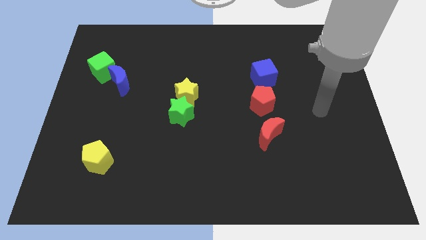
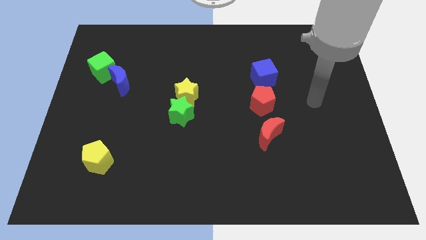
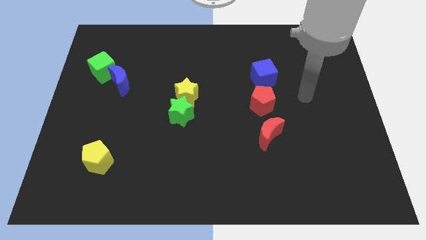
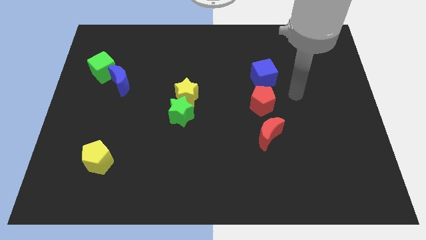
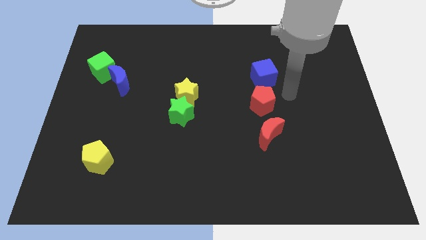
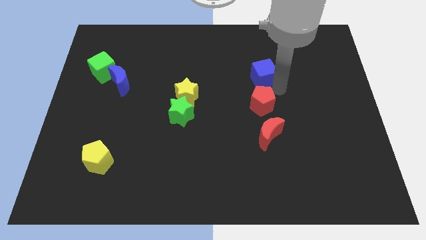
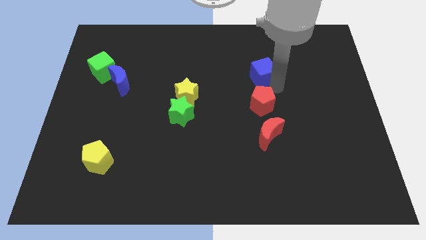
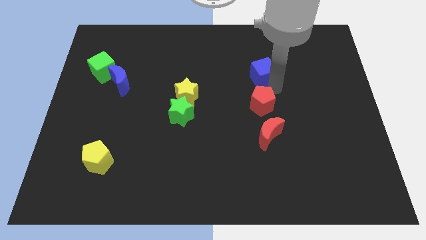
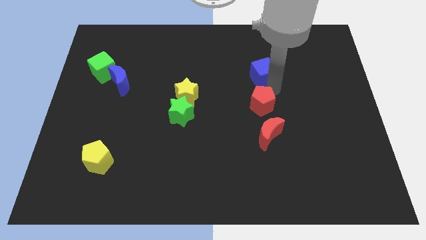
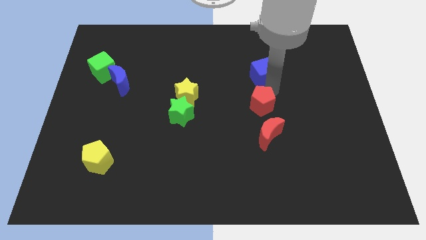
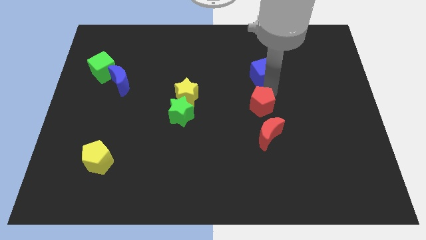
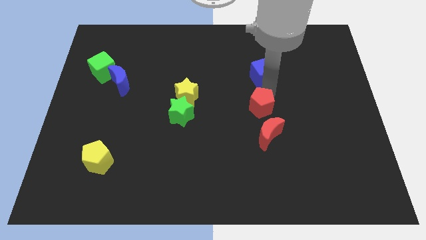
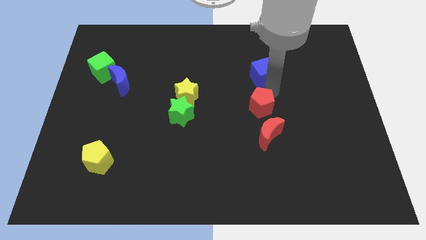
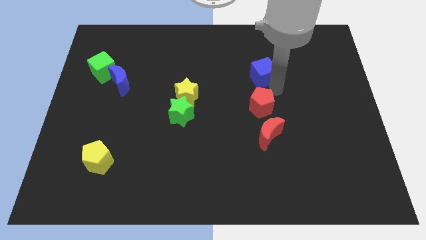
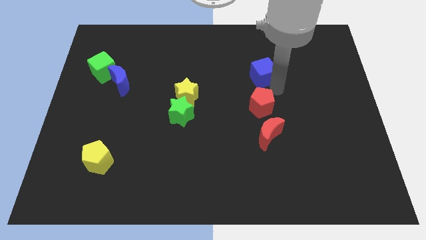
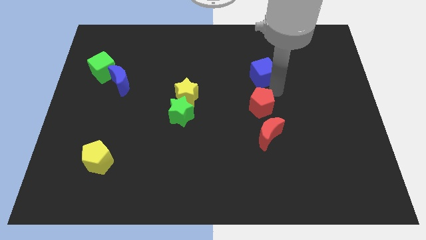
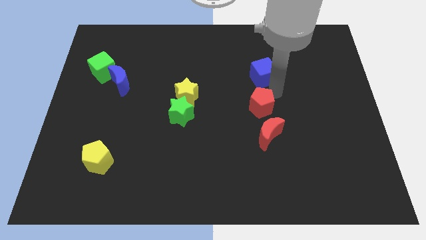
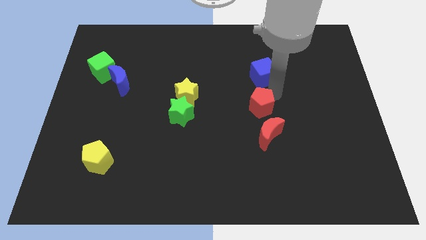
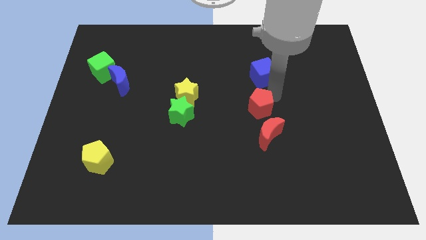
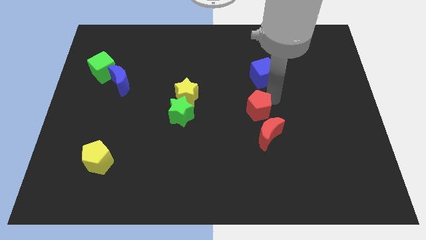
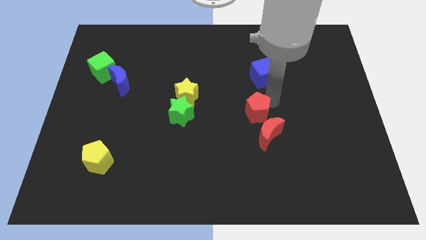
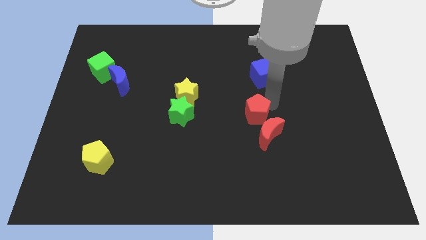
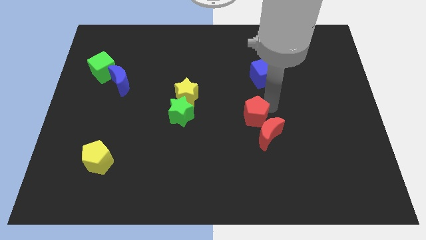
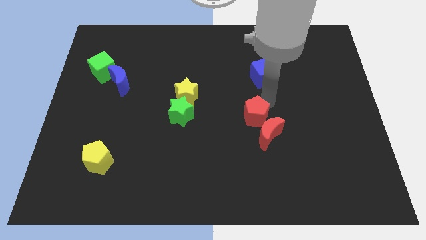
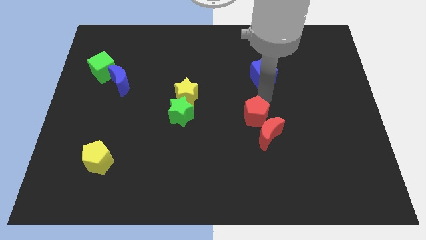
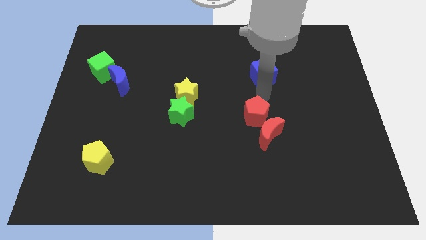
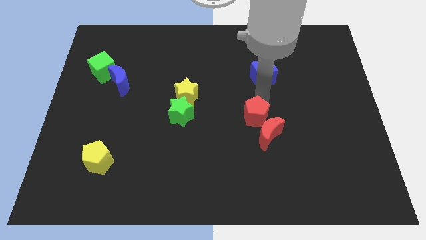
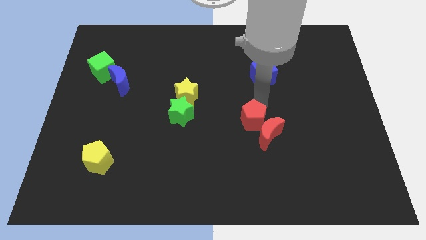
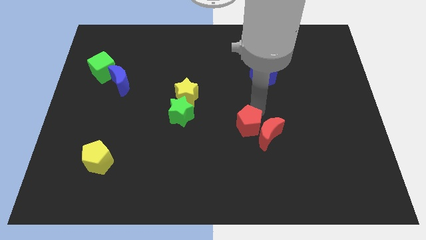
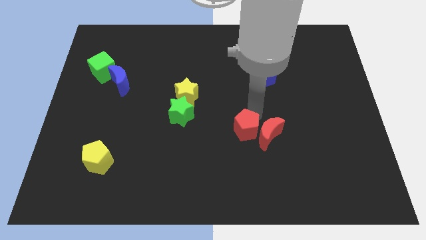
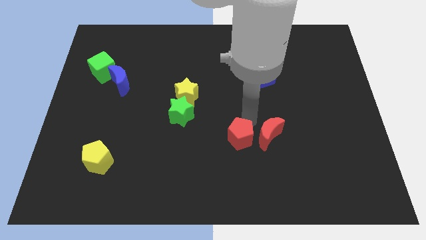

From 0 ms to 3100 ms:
slightly move the red pentagon down

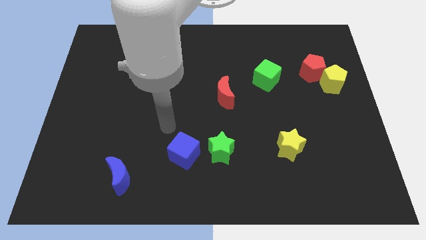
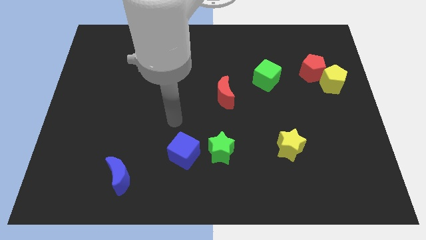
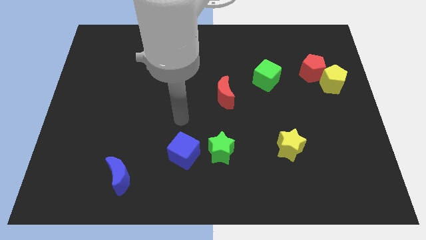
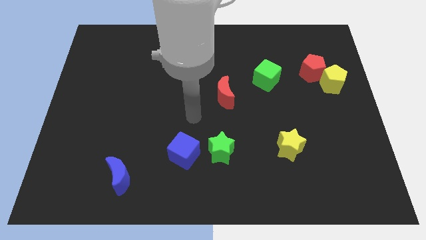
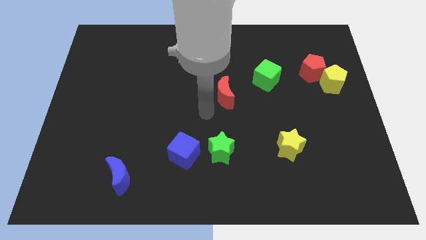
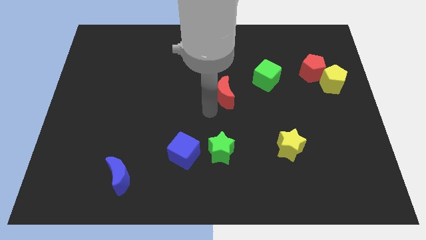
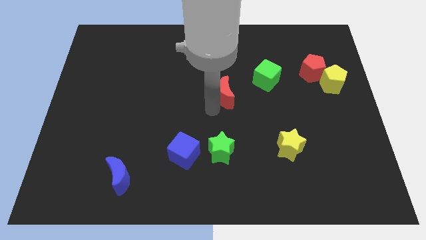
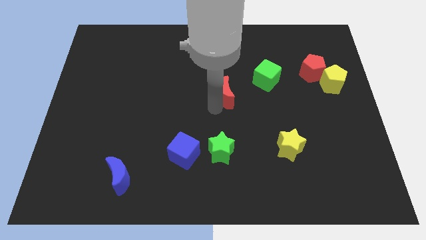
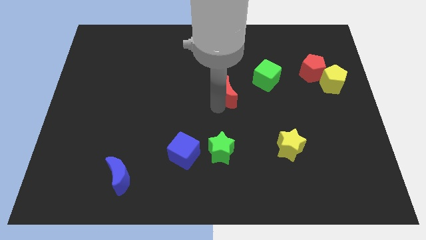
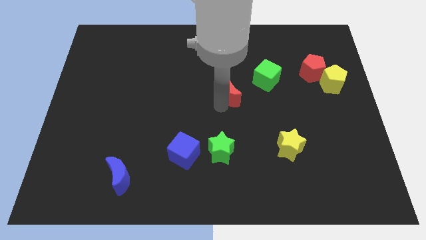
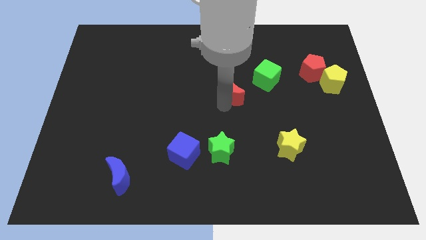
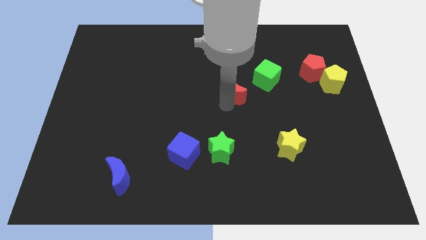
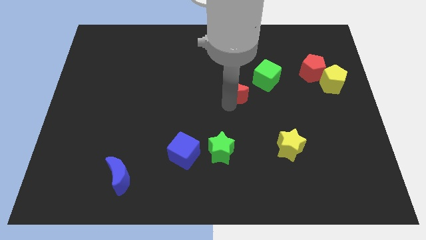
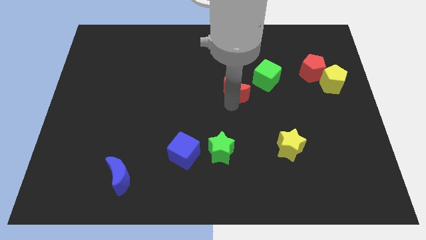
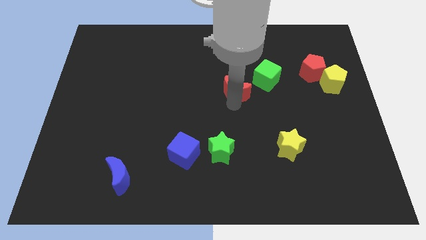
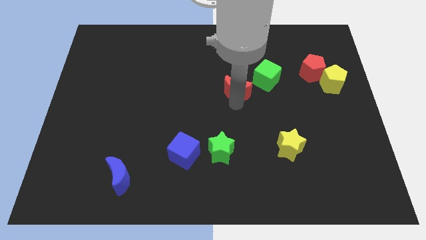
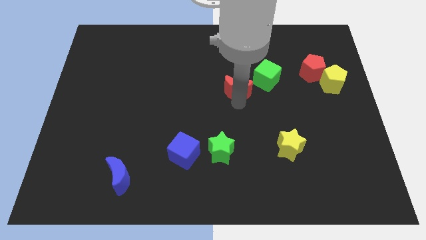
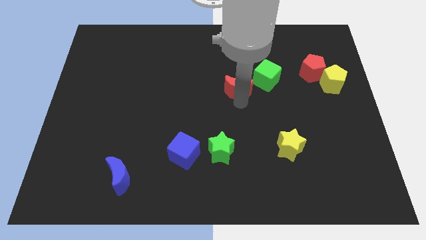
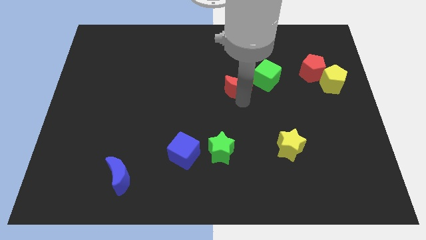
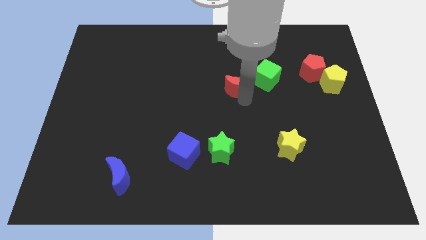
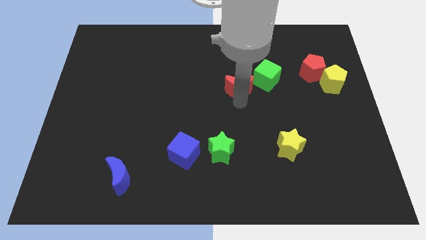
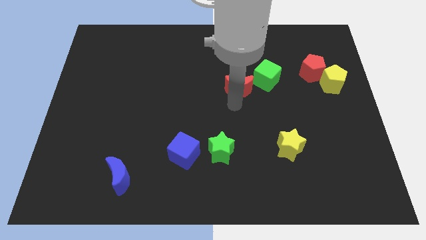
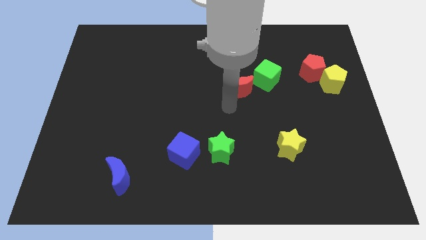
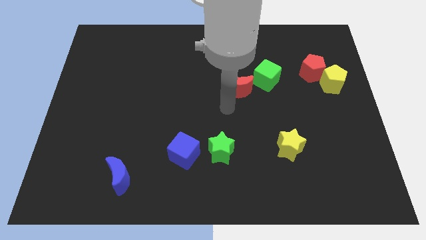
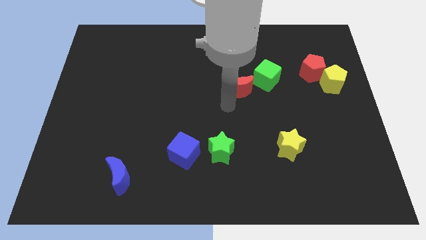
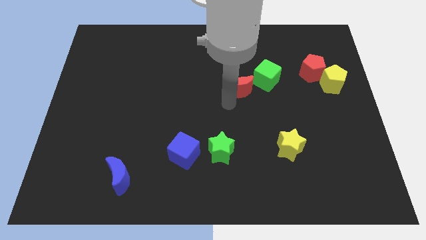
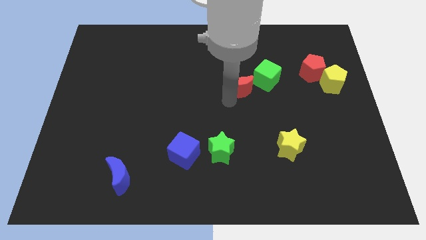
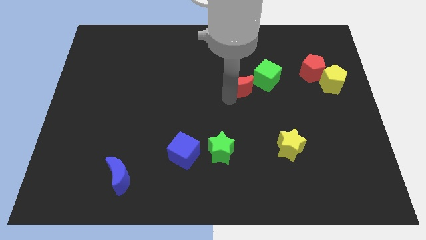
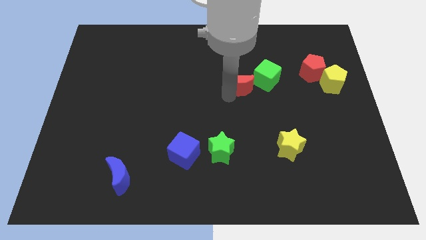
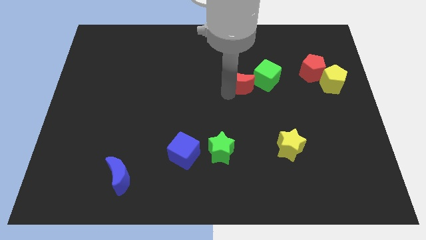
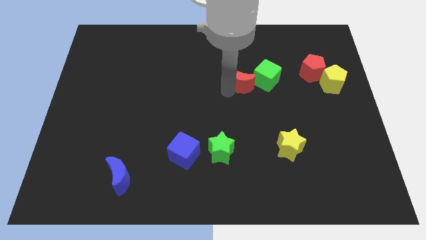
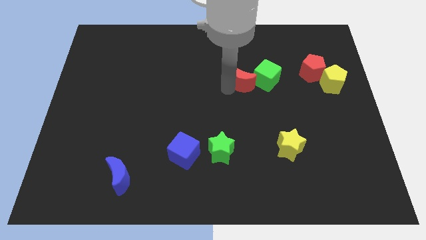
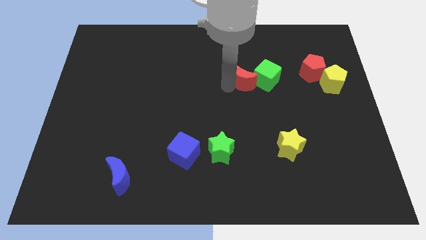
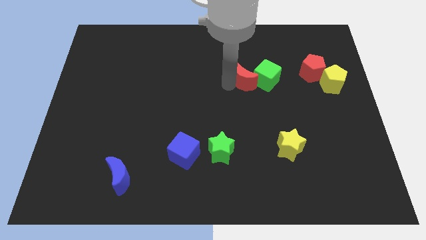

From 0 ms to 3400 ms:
push the red moon somewhat diagonally up and to the right

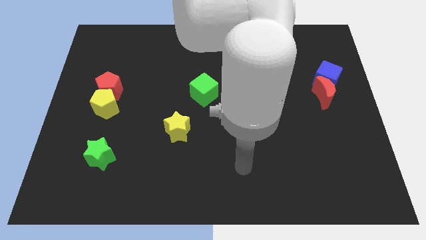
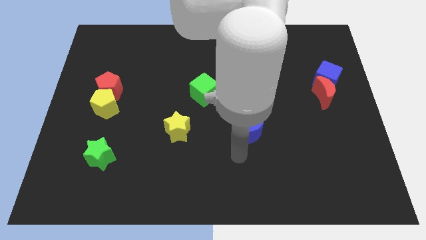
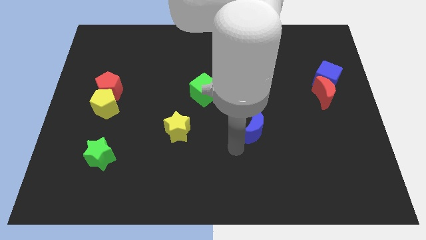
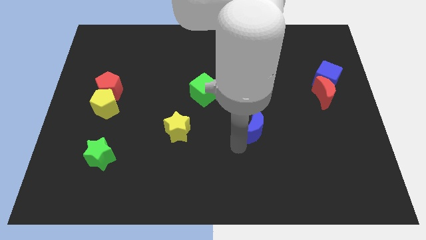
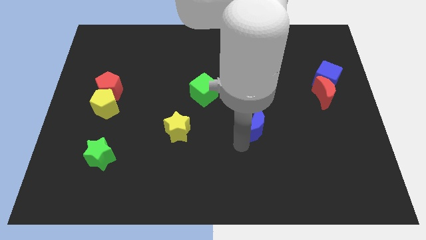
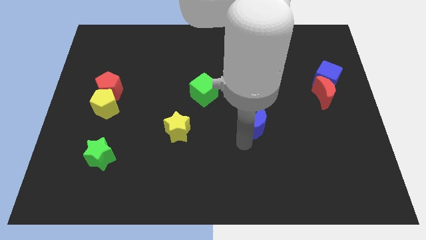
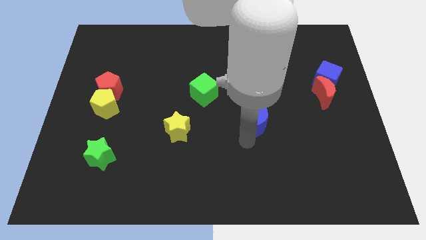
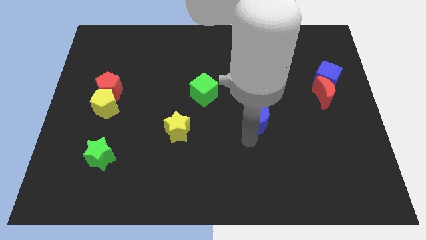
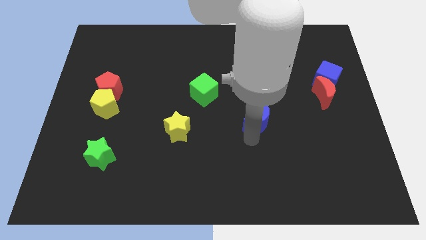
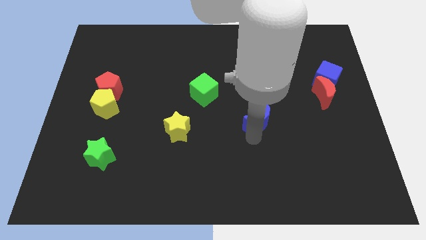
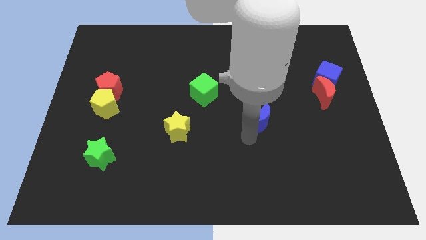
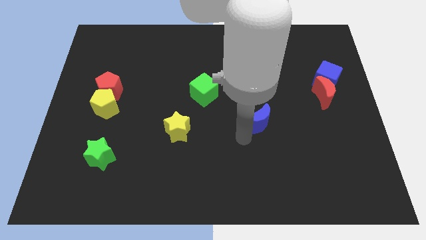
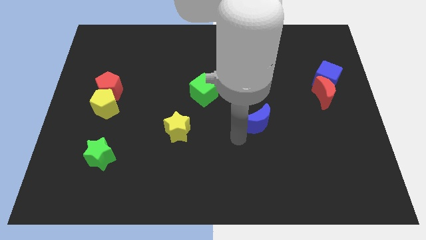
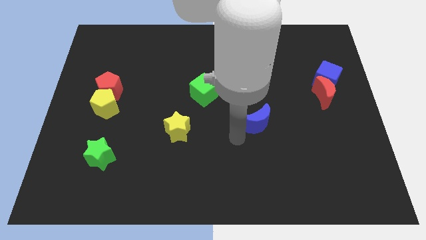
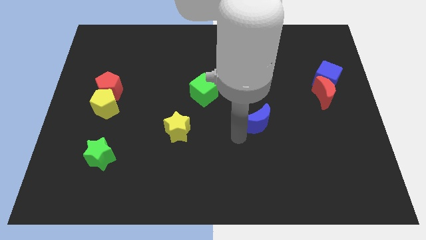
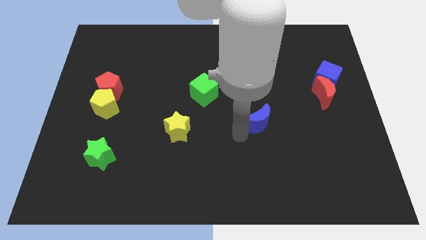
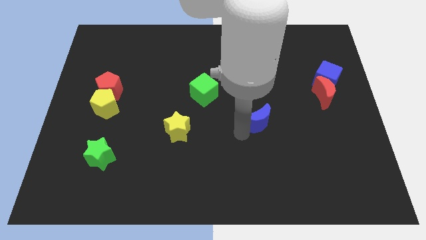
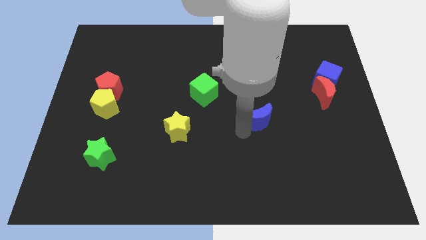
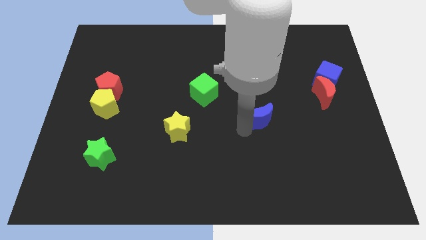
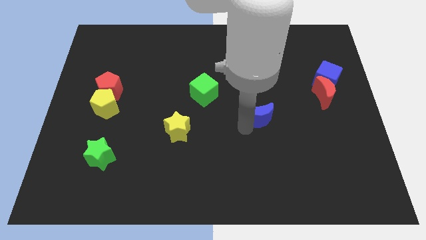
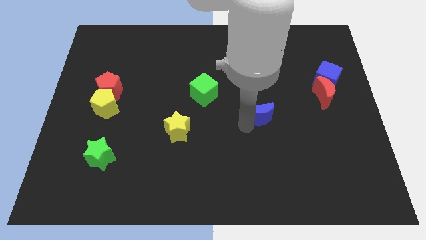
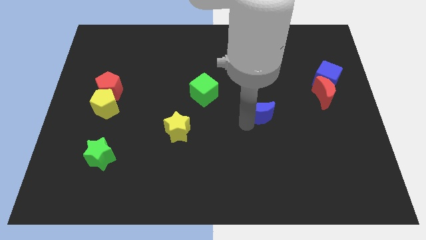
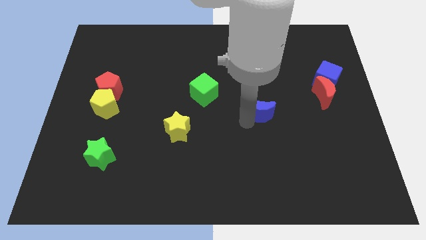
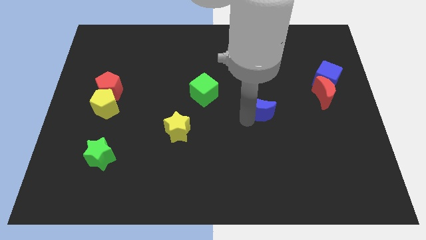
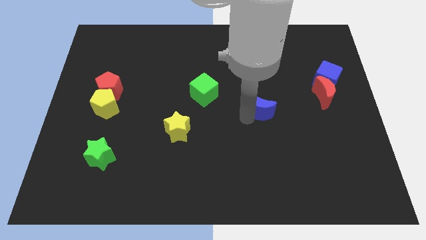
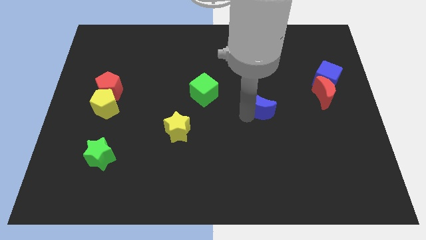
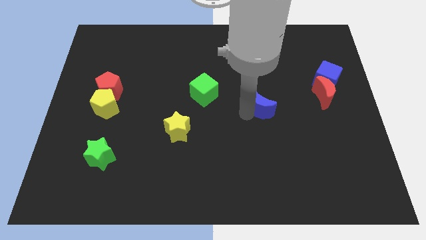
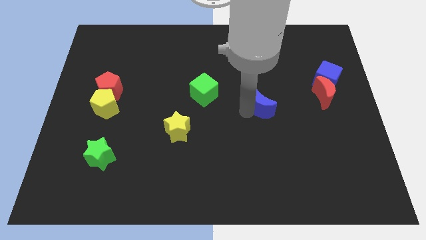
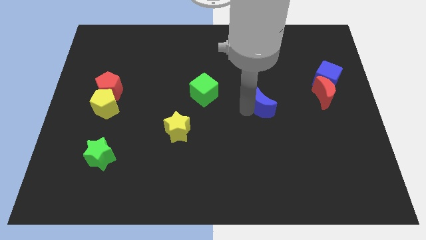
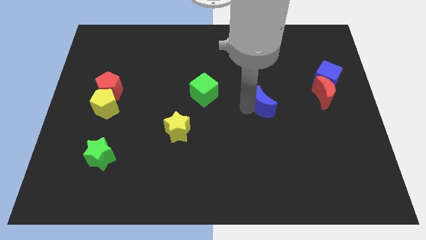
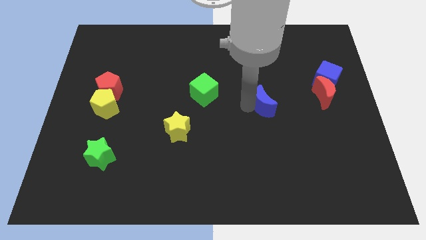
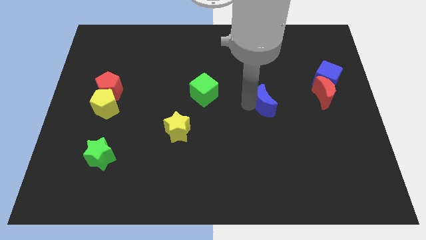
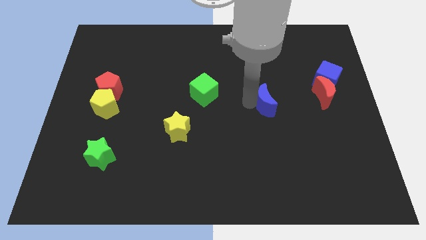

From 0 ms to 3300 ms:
slightly move the blue moon diagonally up and right
